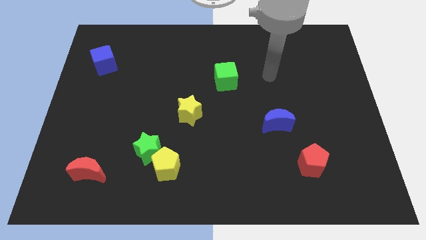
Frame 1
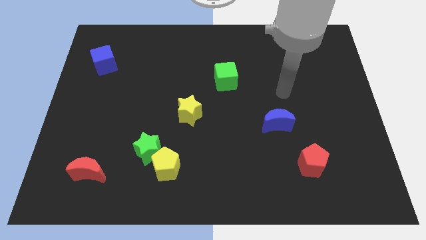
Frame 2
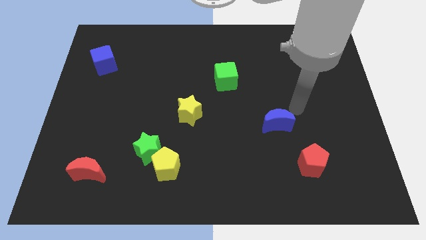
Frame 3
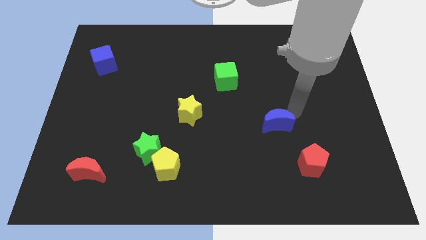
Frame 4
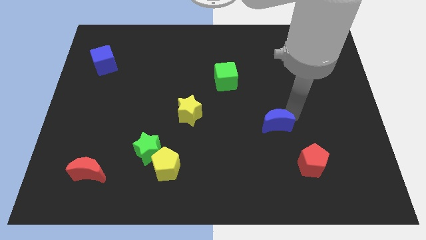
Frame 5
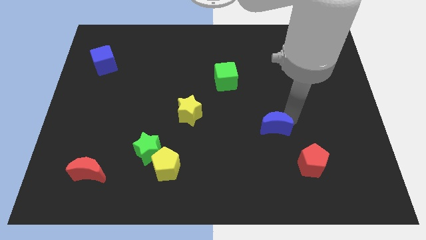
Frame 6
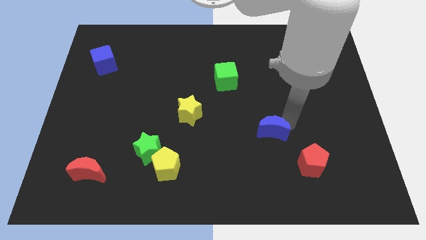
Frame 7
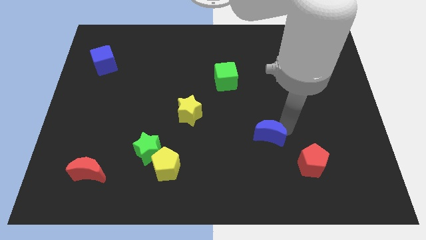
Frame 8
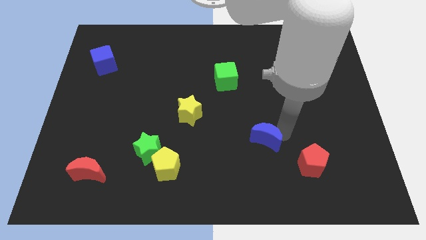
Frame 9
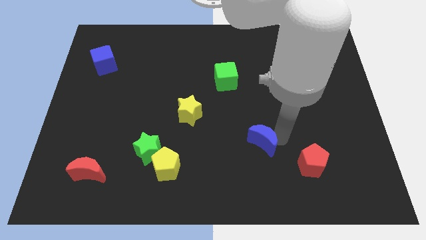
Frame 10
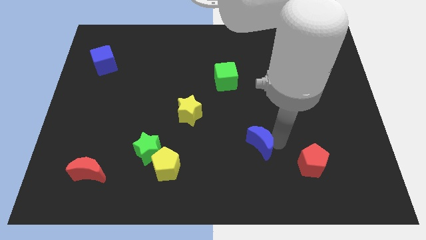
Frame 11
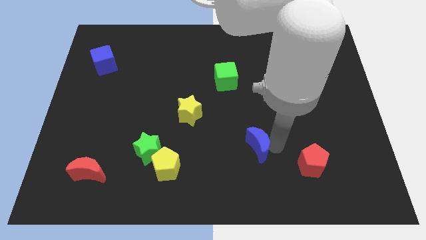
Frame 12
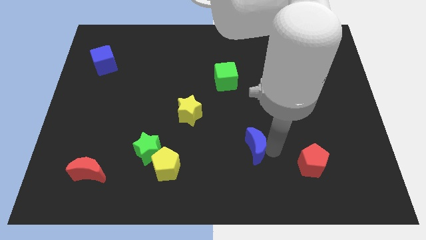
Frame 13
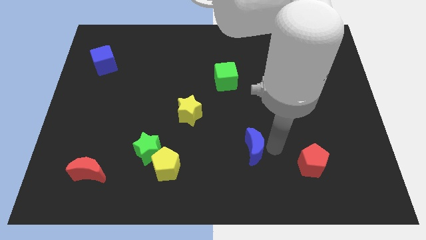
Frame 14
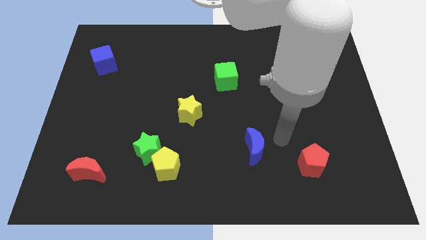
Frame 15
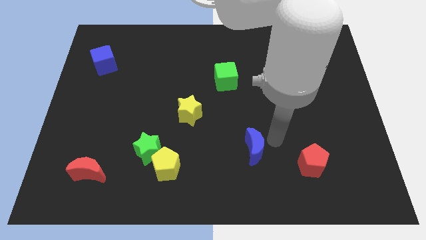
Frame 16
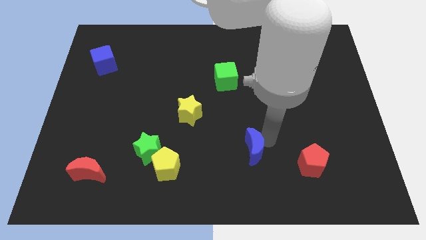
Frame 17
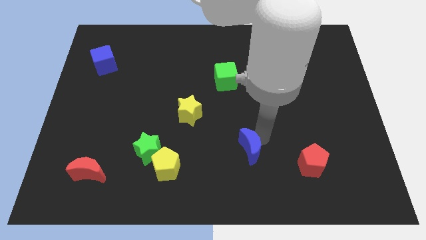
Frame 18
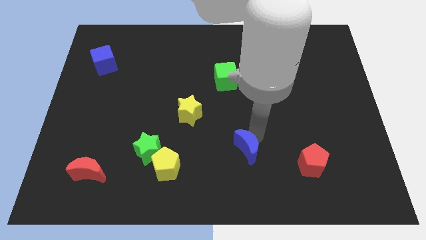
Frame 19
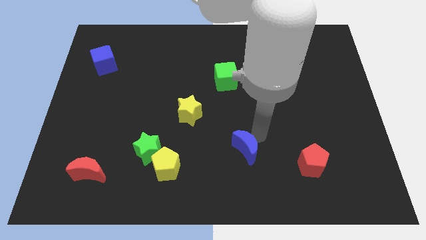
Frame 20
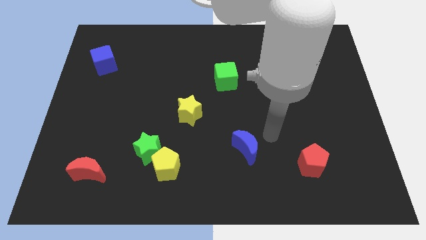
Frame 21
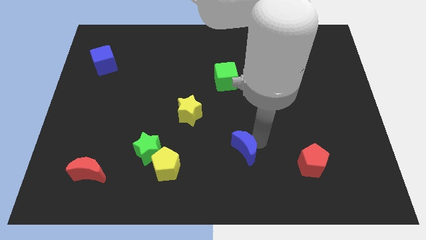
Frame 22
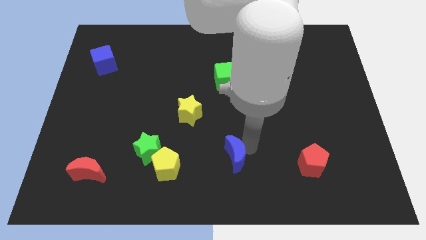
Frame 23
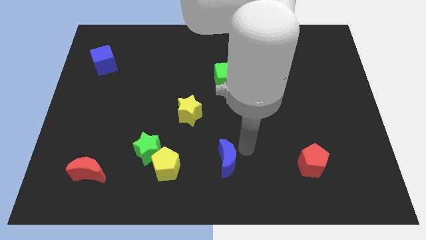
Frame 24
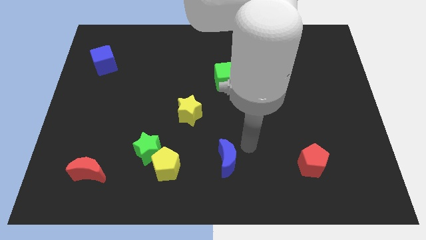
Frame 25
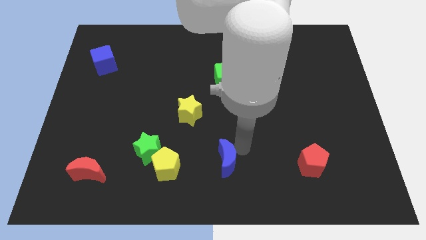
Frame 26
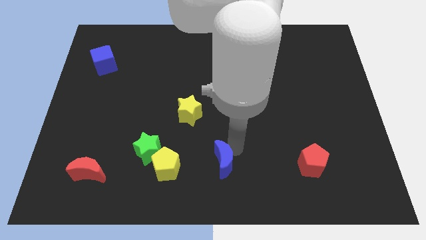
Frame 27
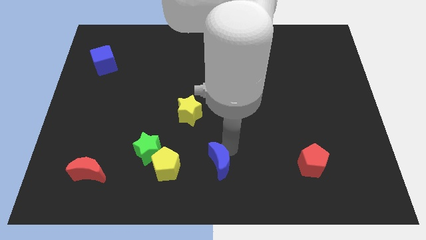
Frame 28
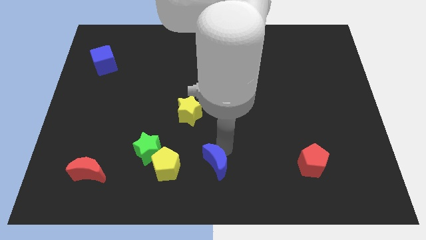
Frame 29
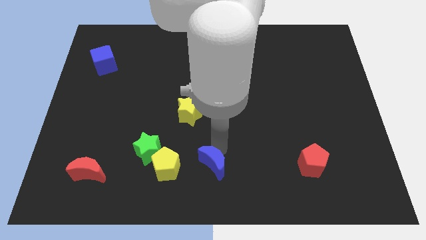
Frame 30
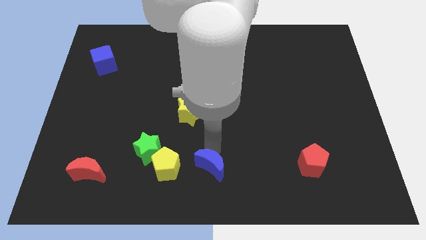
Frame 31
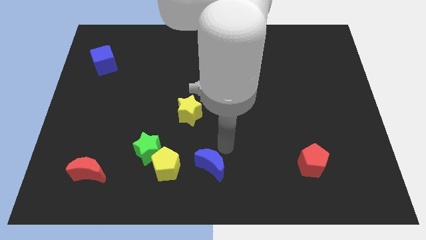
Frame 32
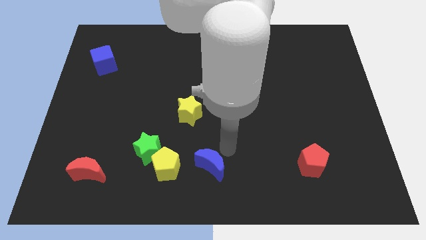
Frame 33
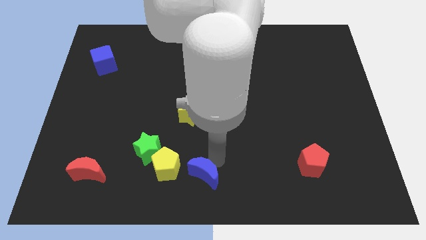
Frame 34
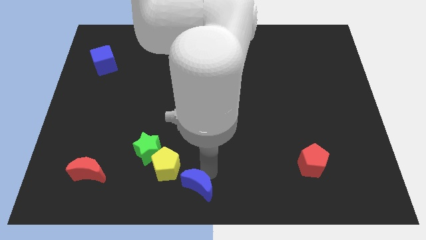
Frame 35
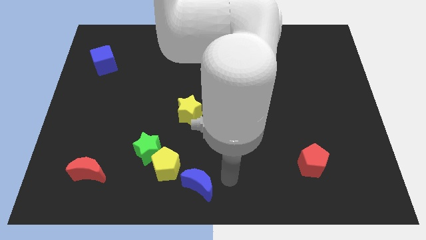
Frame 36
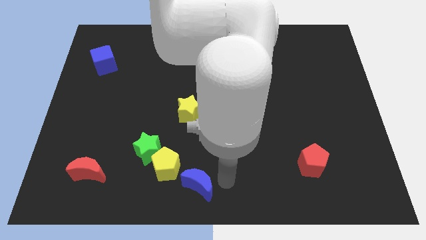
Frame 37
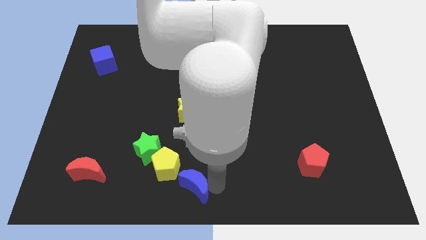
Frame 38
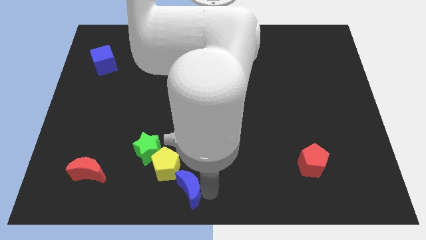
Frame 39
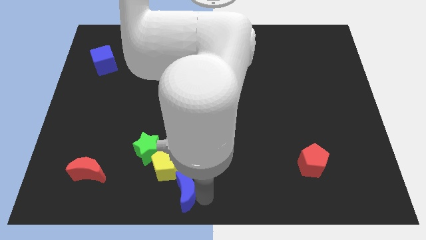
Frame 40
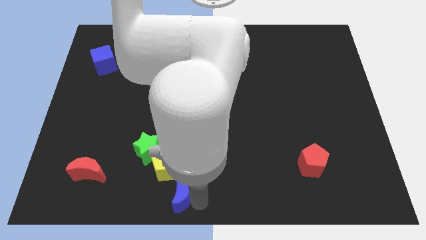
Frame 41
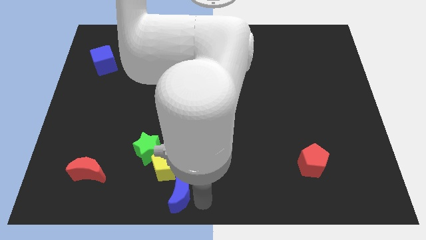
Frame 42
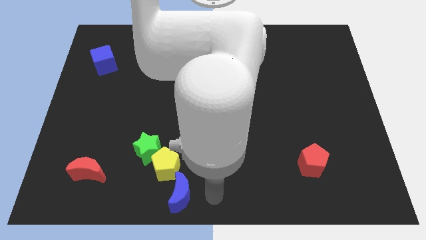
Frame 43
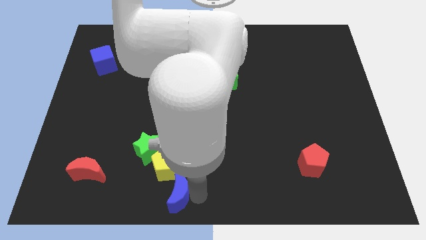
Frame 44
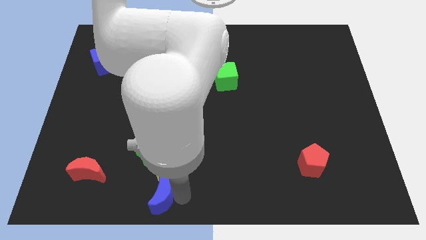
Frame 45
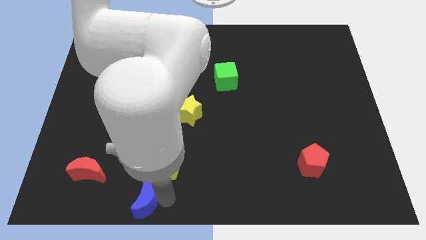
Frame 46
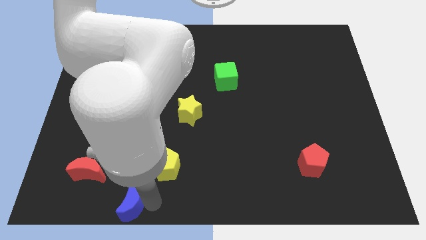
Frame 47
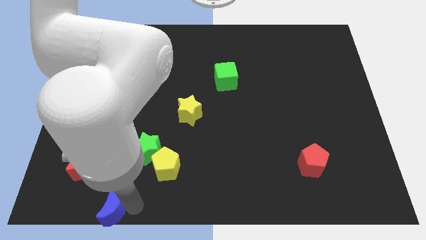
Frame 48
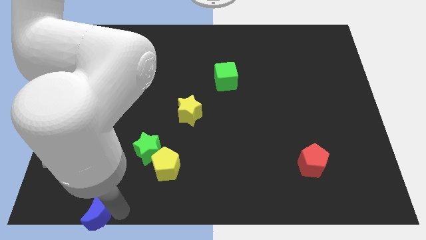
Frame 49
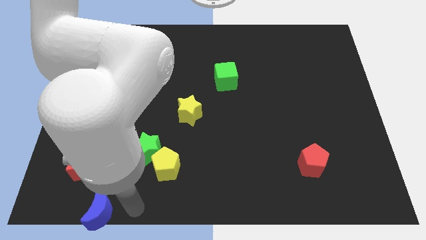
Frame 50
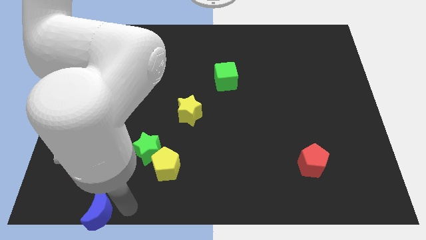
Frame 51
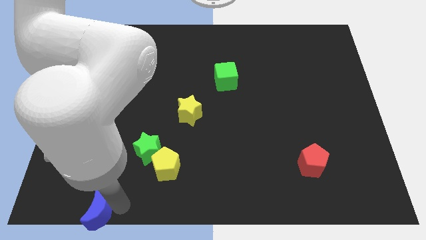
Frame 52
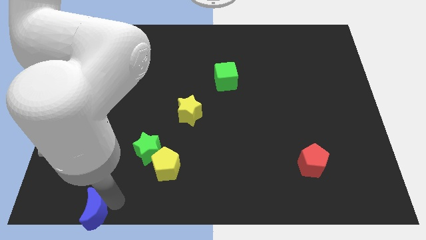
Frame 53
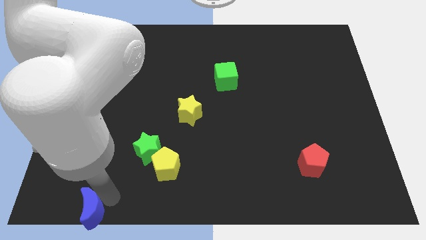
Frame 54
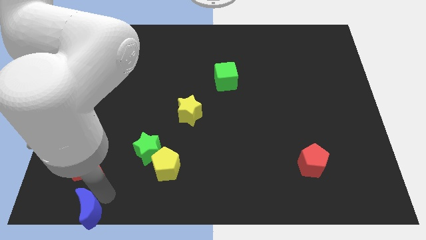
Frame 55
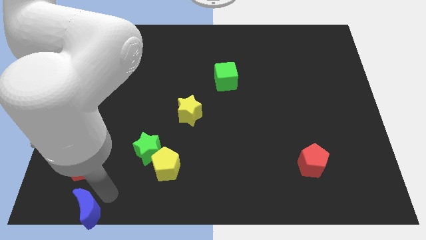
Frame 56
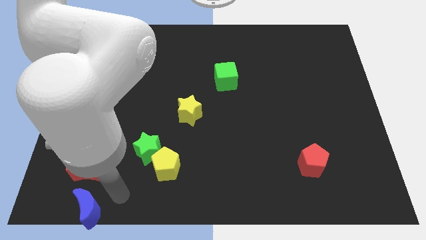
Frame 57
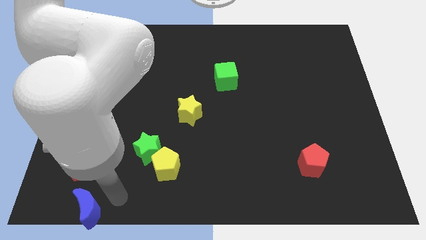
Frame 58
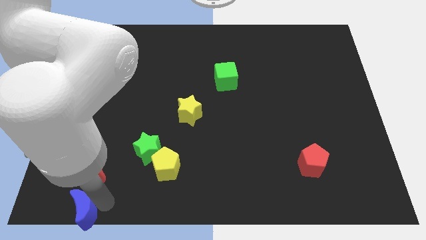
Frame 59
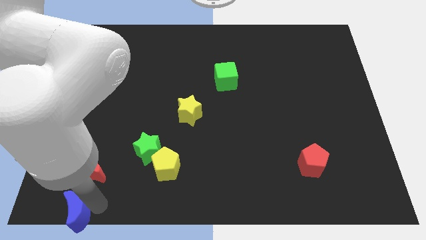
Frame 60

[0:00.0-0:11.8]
slide the blue moon to the lower left corner

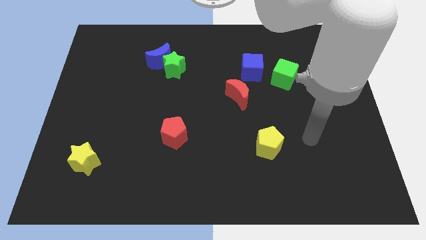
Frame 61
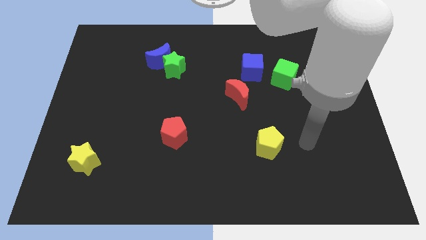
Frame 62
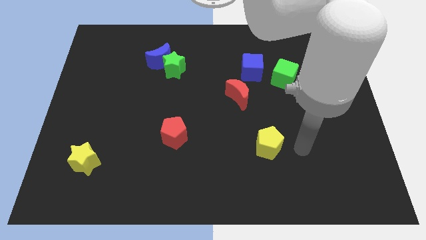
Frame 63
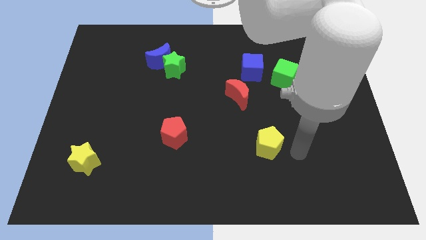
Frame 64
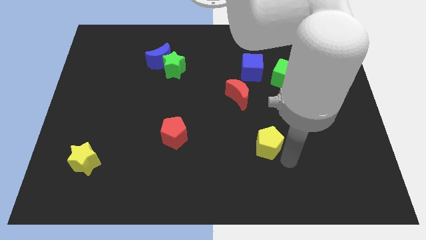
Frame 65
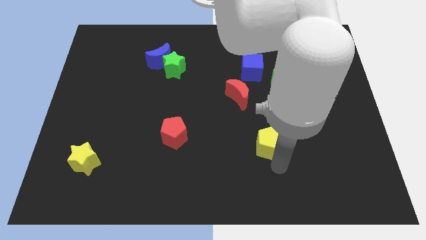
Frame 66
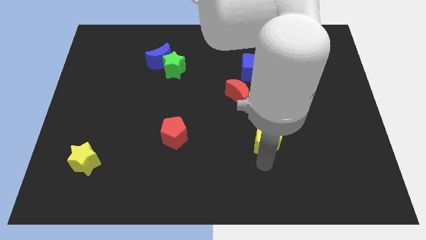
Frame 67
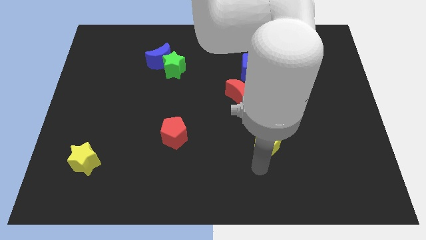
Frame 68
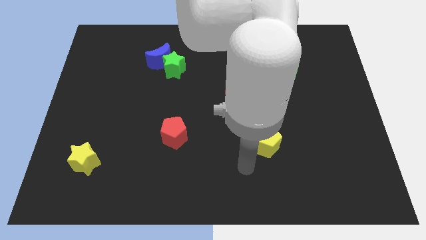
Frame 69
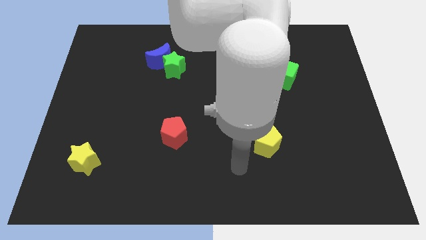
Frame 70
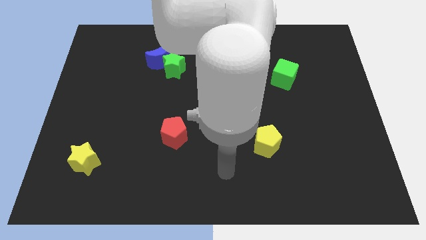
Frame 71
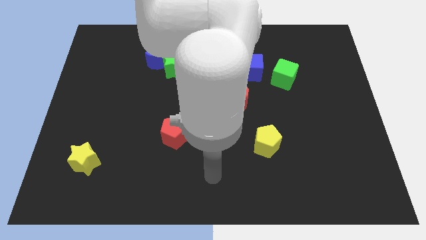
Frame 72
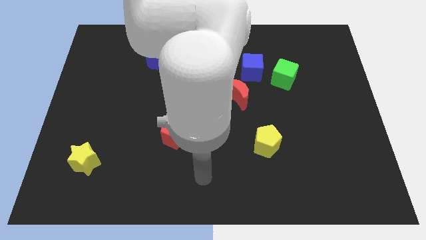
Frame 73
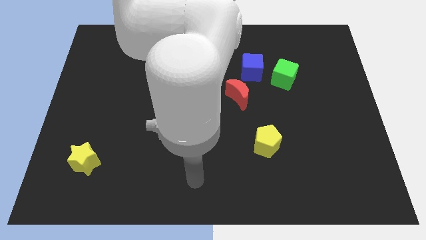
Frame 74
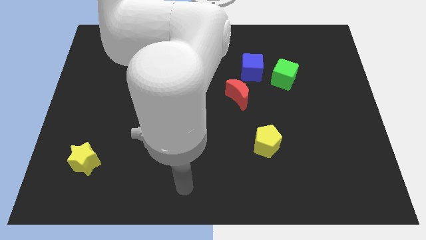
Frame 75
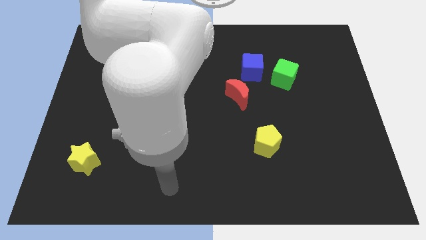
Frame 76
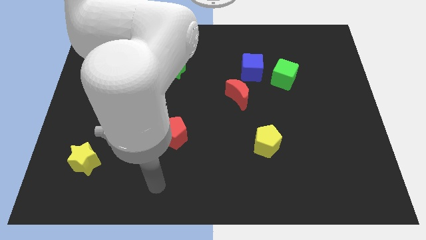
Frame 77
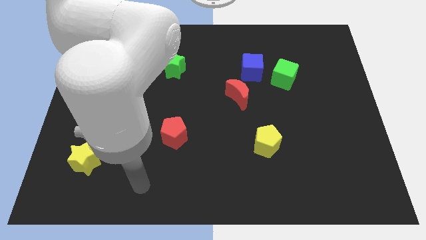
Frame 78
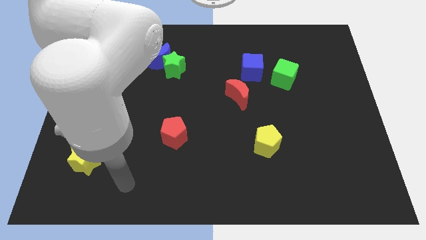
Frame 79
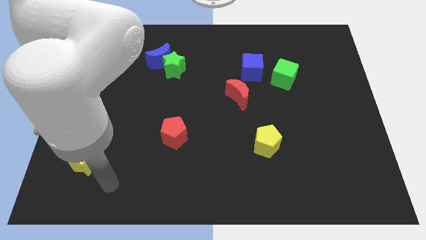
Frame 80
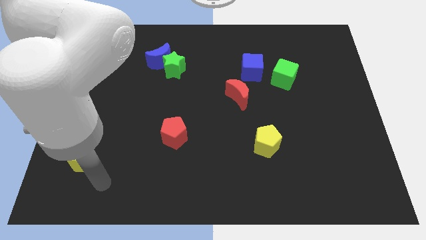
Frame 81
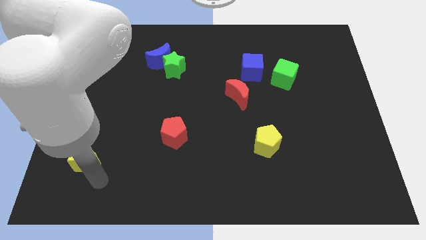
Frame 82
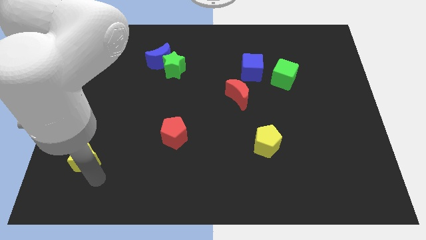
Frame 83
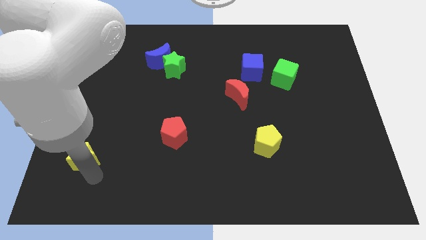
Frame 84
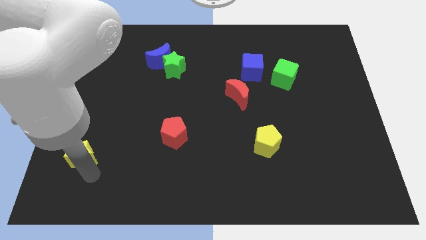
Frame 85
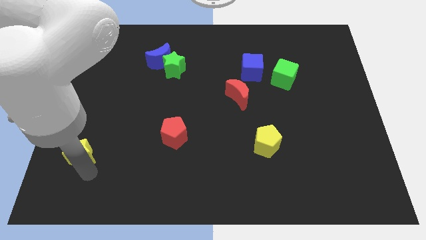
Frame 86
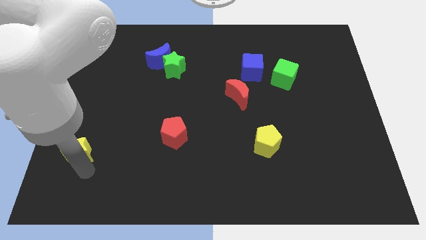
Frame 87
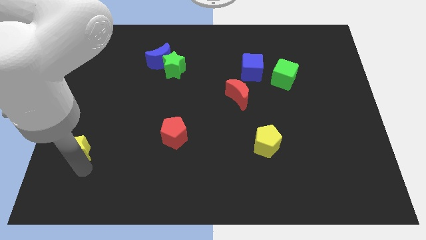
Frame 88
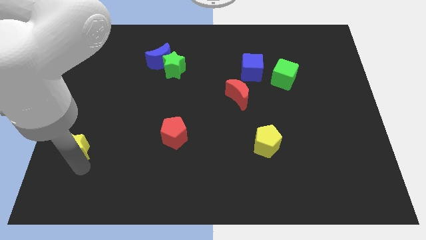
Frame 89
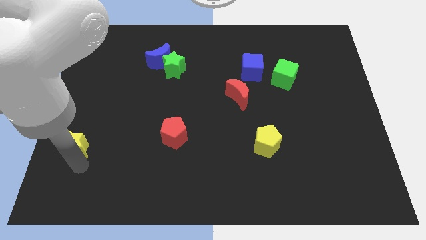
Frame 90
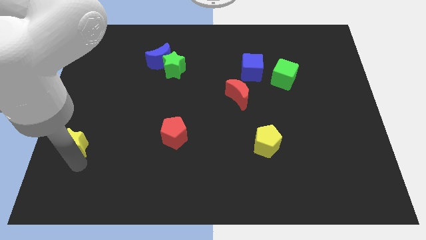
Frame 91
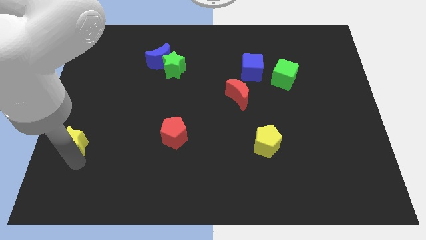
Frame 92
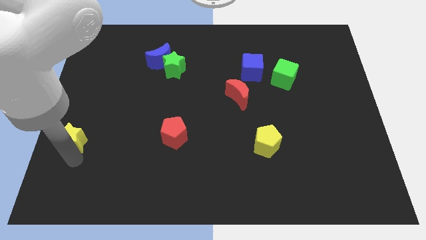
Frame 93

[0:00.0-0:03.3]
push the yellow star to the left side of the board
